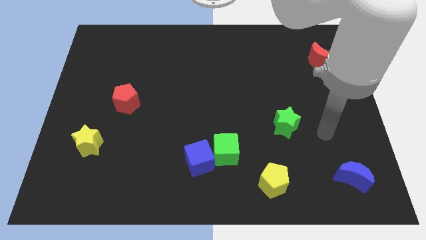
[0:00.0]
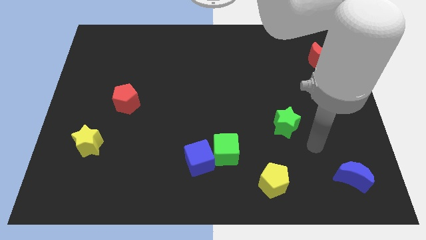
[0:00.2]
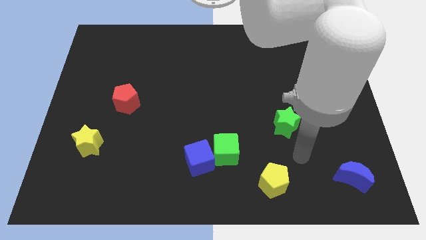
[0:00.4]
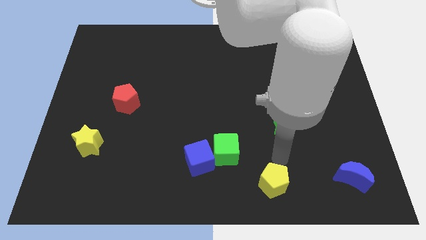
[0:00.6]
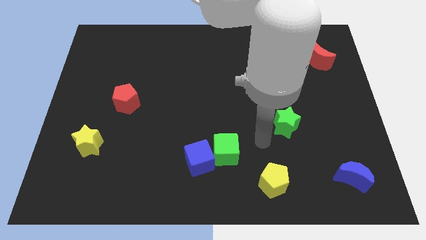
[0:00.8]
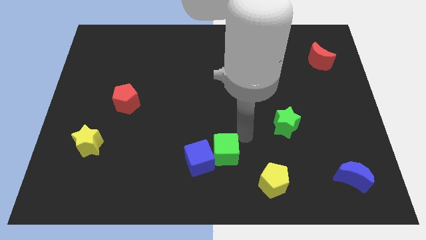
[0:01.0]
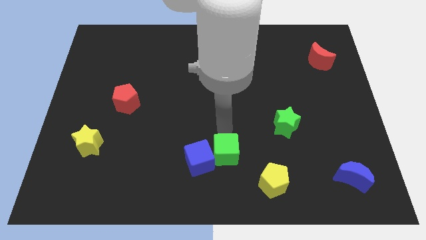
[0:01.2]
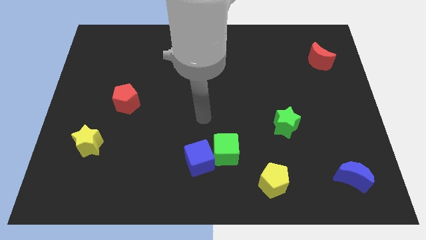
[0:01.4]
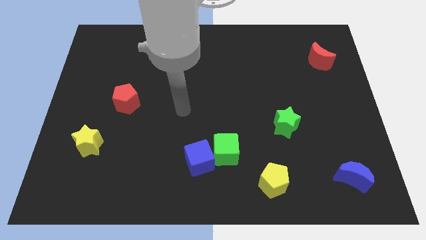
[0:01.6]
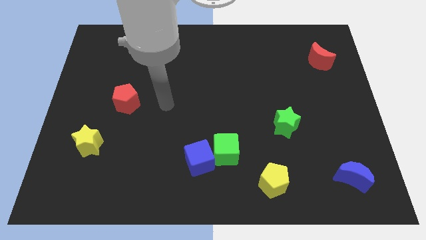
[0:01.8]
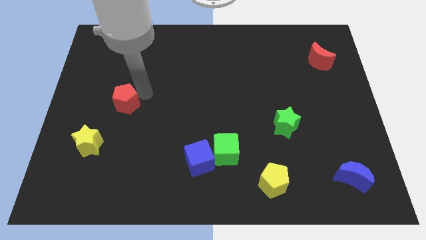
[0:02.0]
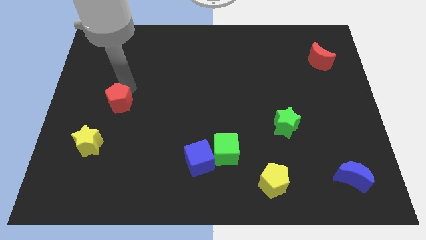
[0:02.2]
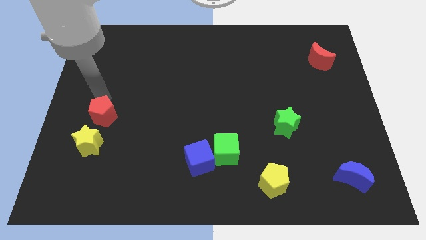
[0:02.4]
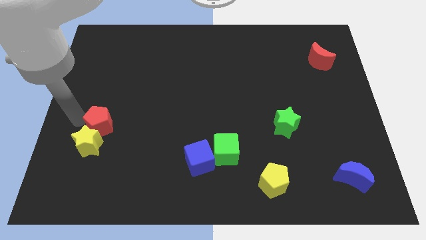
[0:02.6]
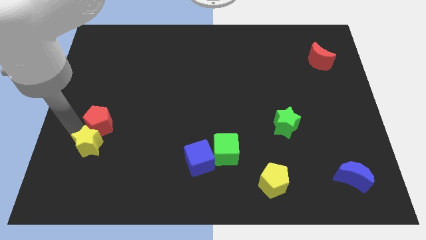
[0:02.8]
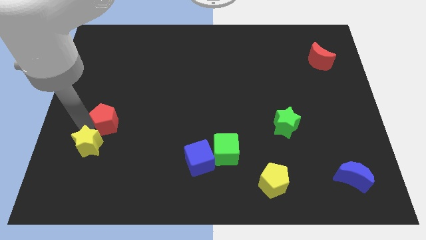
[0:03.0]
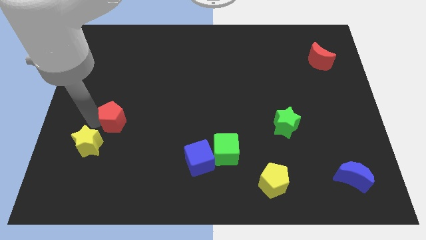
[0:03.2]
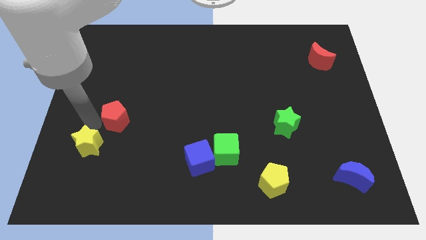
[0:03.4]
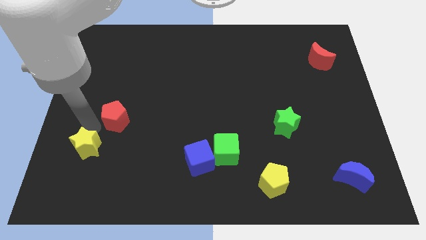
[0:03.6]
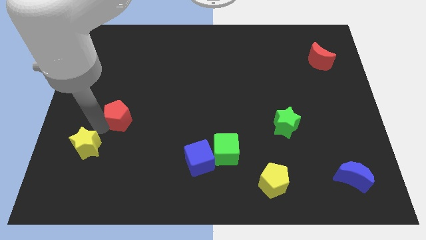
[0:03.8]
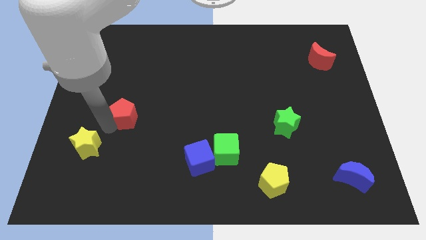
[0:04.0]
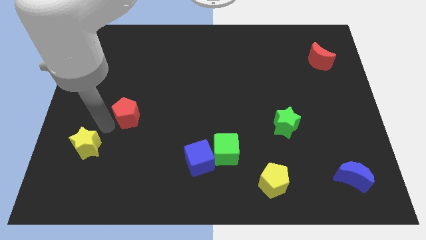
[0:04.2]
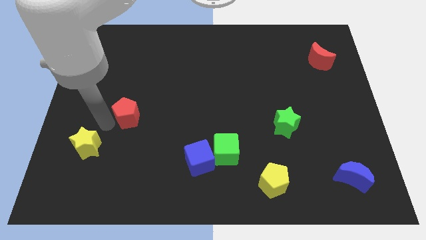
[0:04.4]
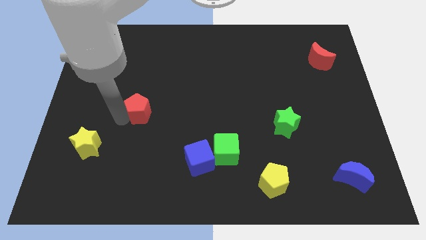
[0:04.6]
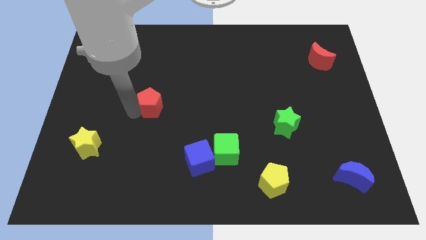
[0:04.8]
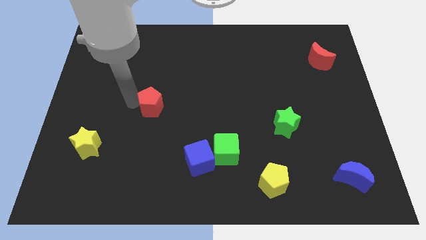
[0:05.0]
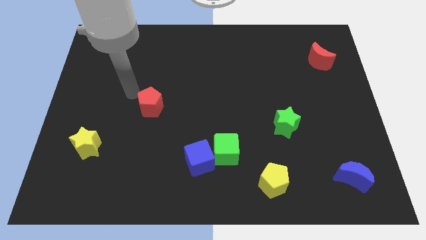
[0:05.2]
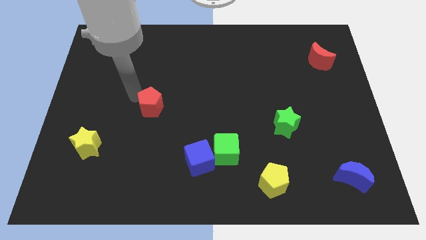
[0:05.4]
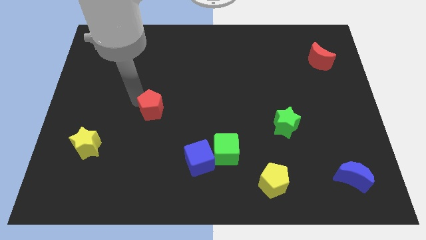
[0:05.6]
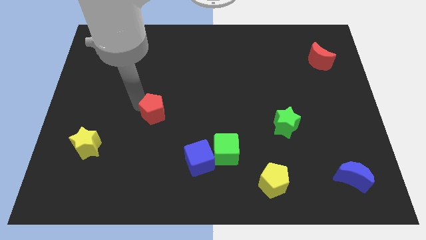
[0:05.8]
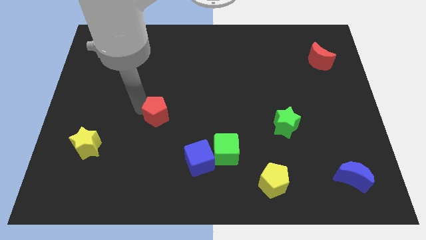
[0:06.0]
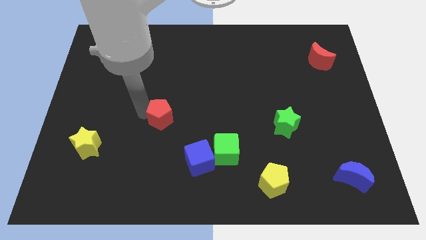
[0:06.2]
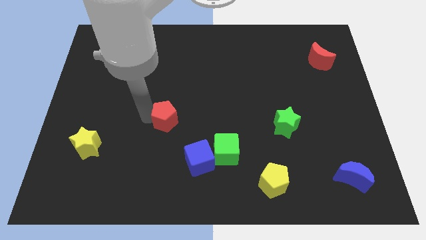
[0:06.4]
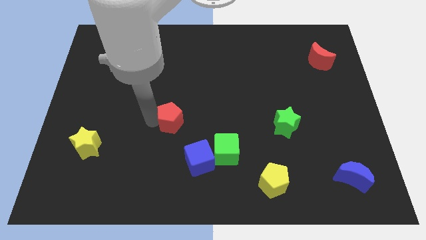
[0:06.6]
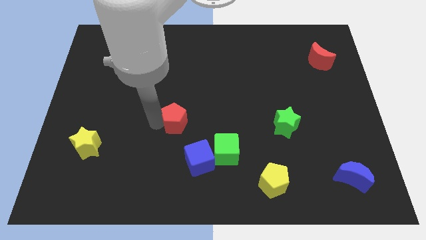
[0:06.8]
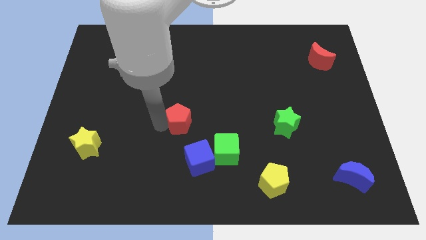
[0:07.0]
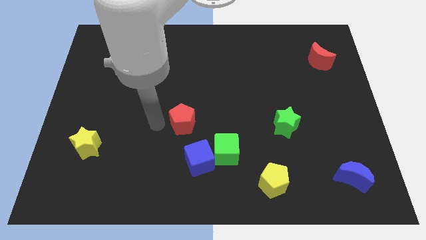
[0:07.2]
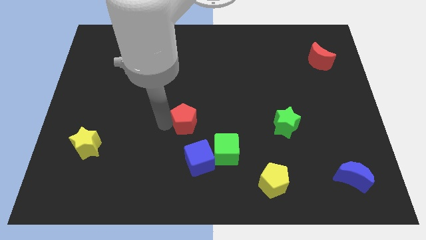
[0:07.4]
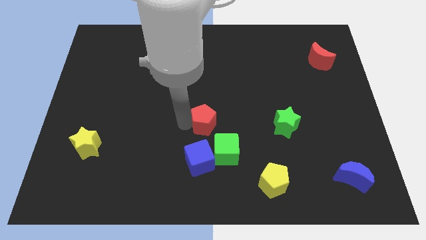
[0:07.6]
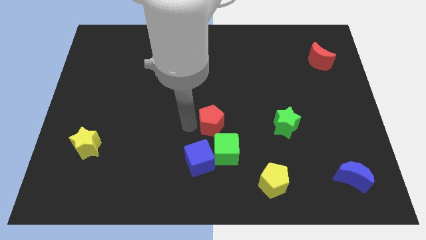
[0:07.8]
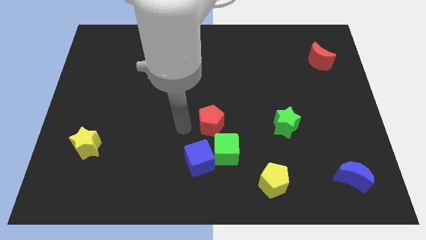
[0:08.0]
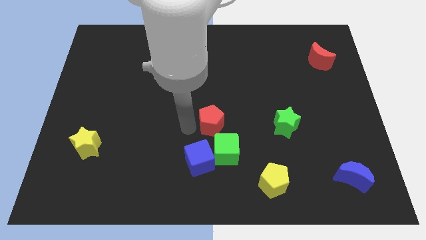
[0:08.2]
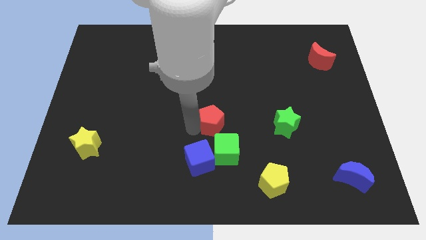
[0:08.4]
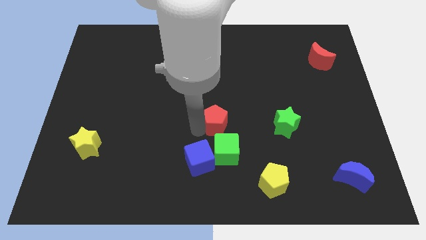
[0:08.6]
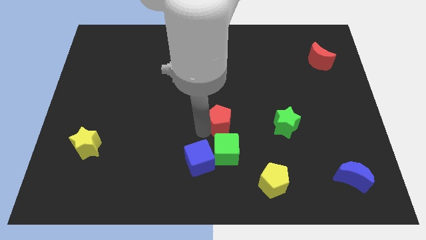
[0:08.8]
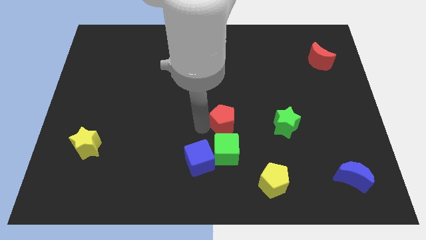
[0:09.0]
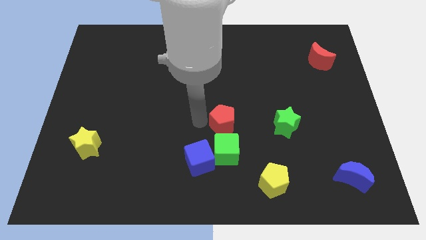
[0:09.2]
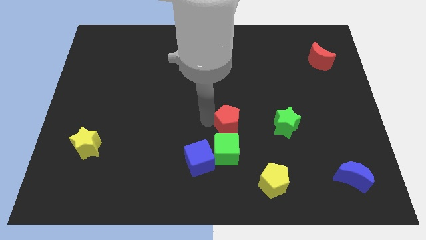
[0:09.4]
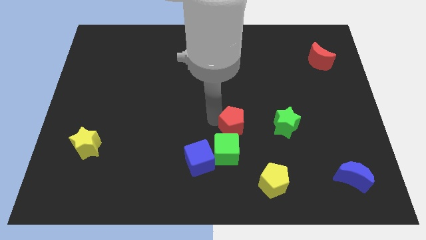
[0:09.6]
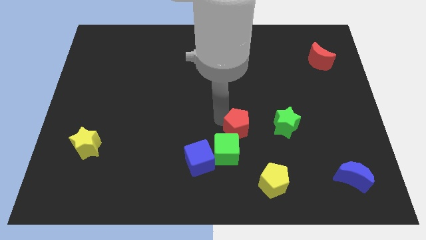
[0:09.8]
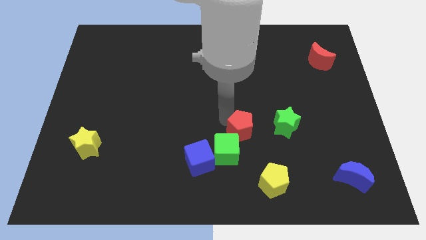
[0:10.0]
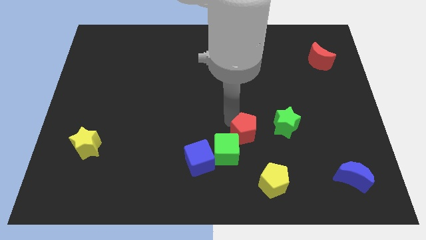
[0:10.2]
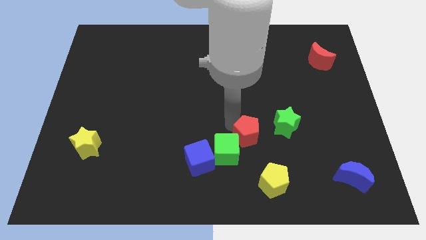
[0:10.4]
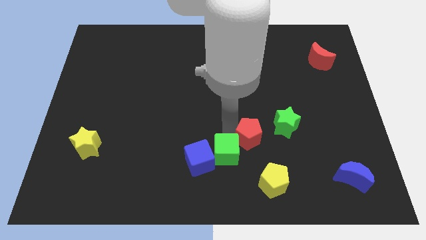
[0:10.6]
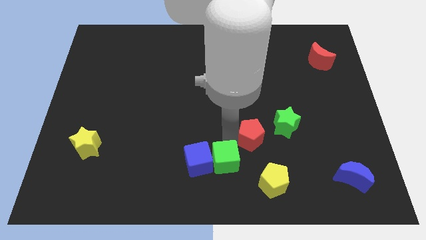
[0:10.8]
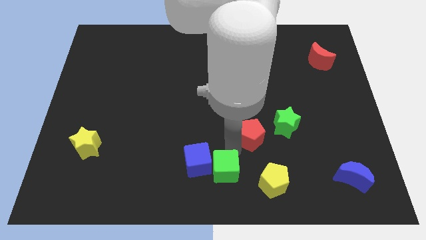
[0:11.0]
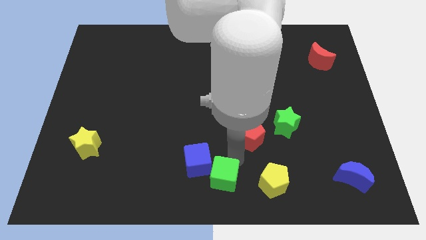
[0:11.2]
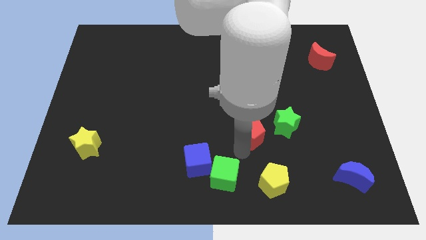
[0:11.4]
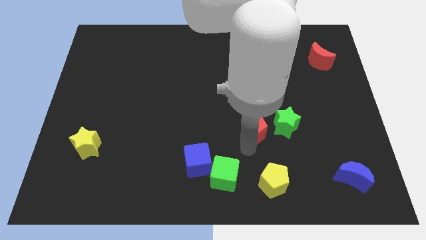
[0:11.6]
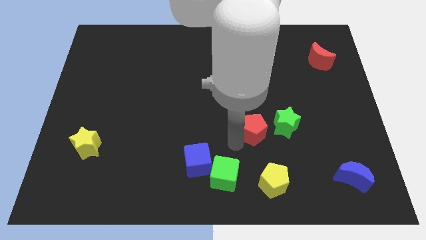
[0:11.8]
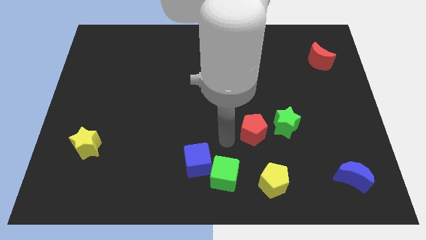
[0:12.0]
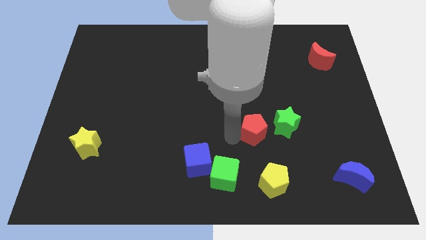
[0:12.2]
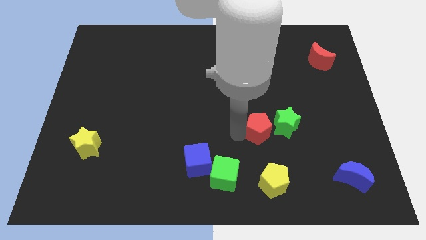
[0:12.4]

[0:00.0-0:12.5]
move the red pentagon close to the green star
